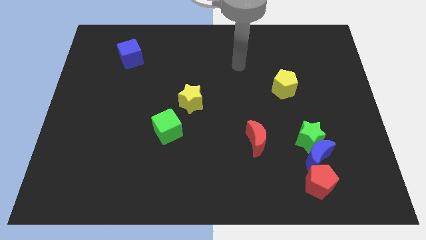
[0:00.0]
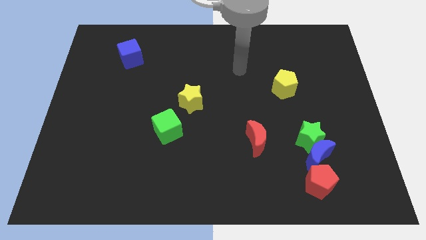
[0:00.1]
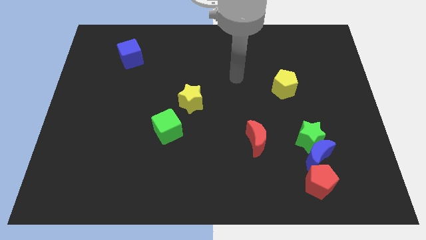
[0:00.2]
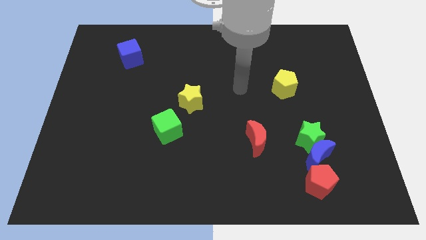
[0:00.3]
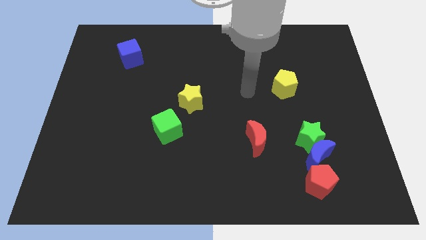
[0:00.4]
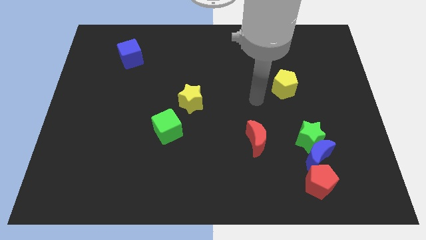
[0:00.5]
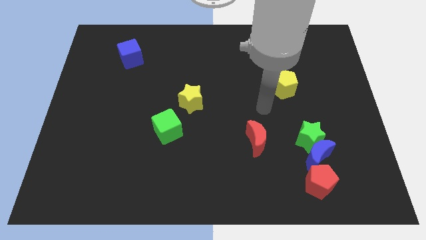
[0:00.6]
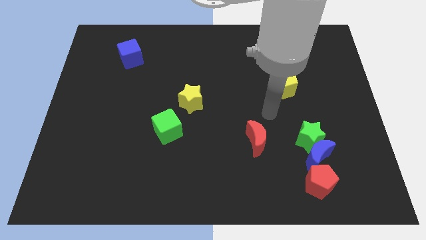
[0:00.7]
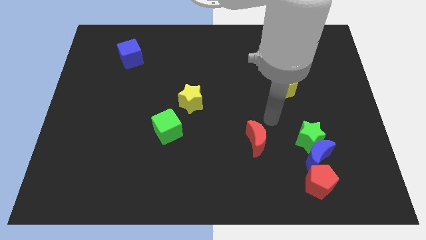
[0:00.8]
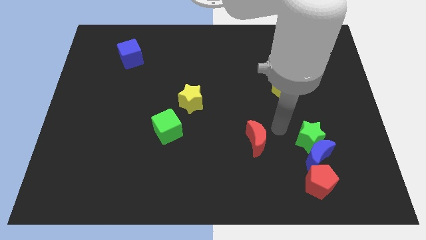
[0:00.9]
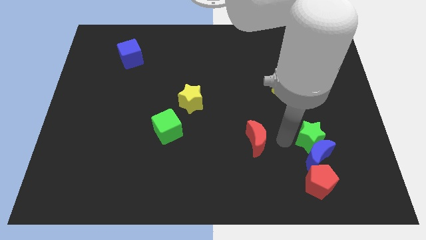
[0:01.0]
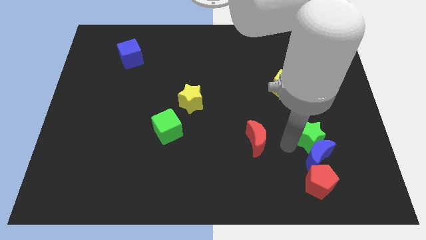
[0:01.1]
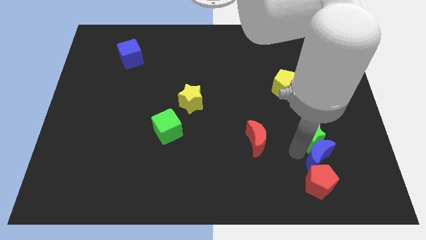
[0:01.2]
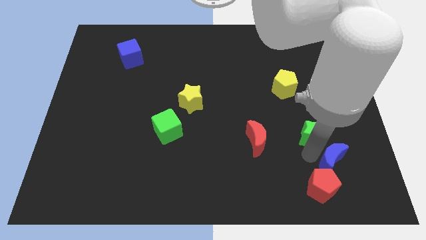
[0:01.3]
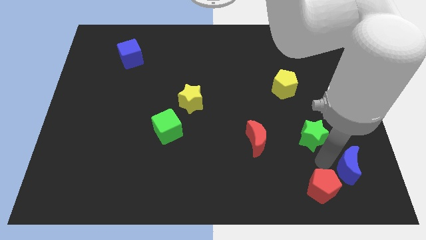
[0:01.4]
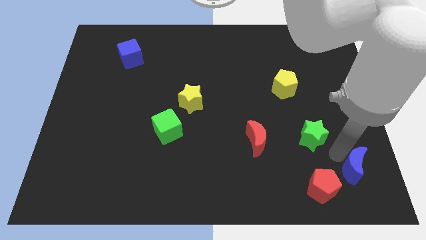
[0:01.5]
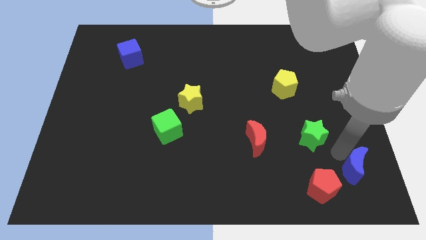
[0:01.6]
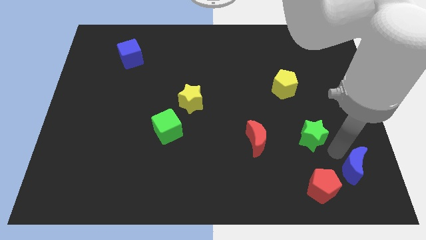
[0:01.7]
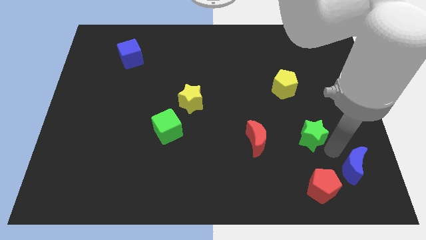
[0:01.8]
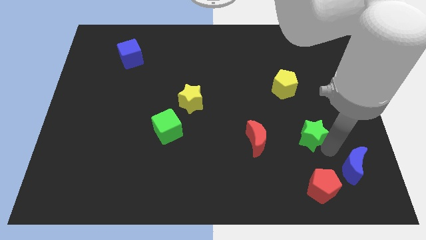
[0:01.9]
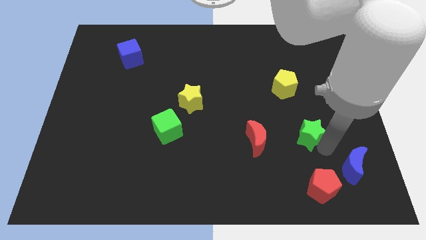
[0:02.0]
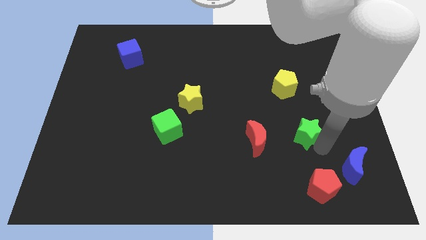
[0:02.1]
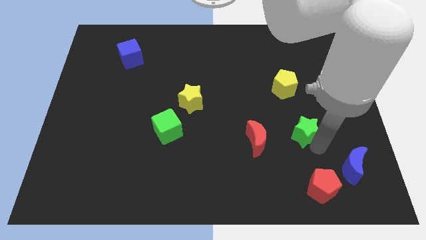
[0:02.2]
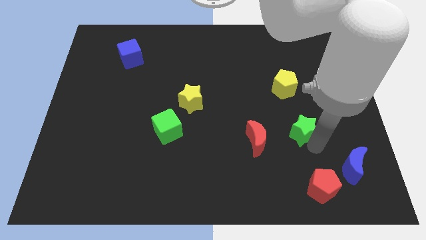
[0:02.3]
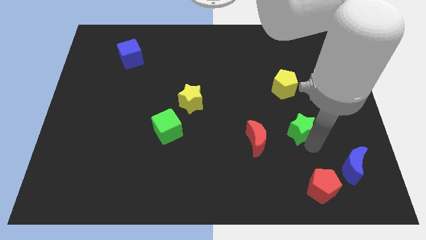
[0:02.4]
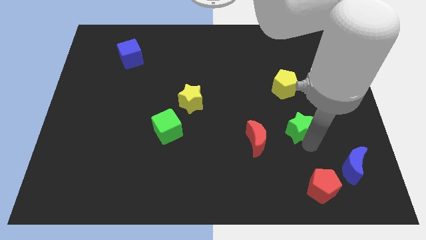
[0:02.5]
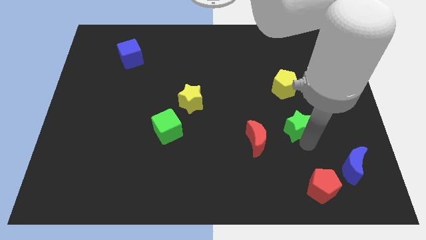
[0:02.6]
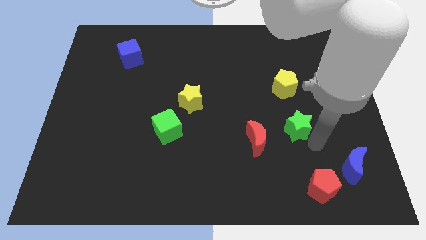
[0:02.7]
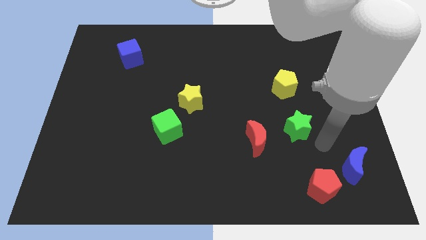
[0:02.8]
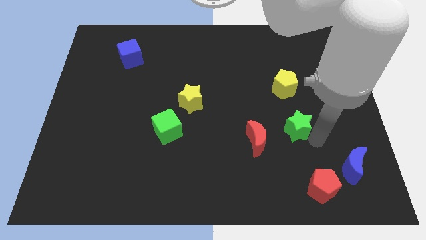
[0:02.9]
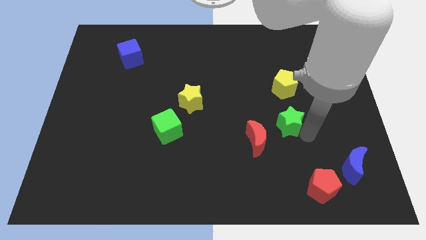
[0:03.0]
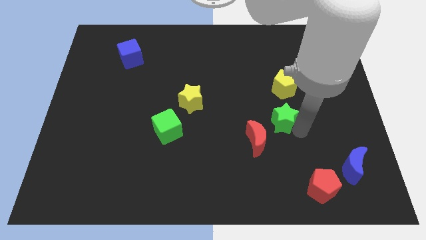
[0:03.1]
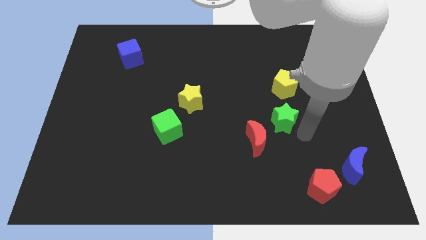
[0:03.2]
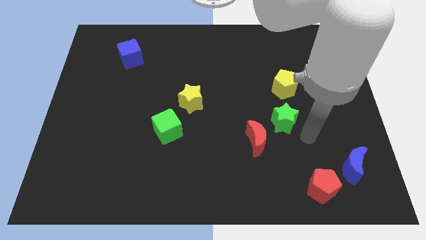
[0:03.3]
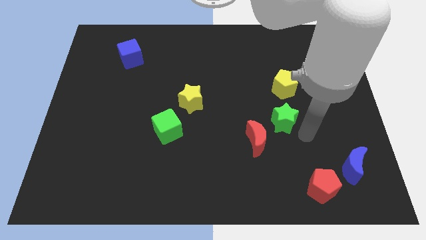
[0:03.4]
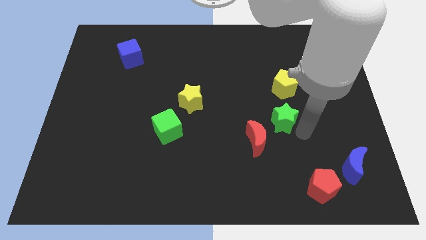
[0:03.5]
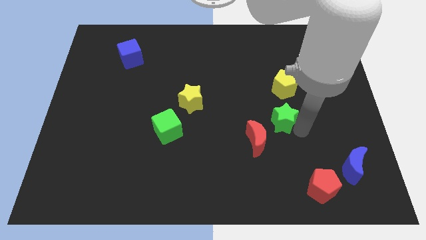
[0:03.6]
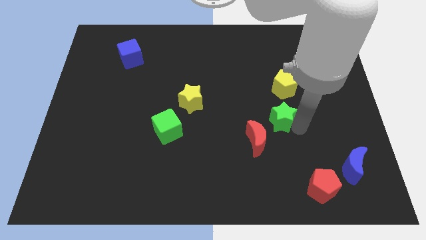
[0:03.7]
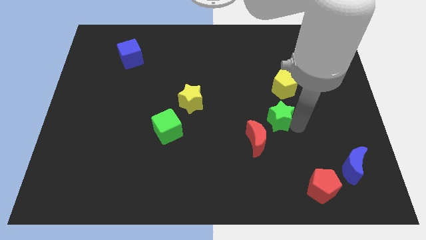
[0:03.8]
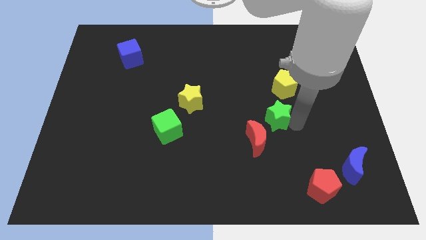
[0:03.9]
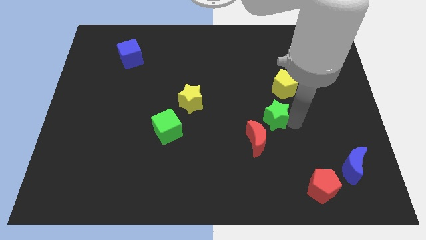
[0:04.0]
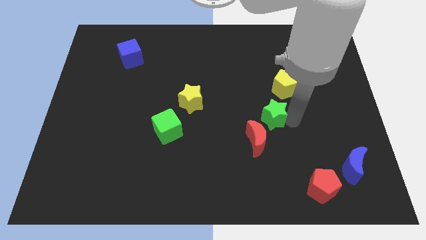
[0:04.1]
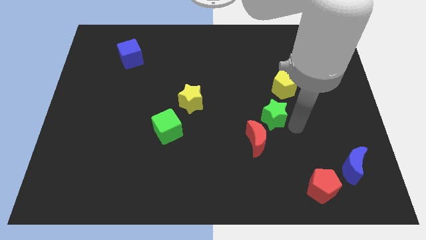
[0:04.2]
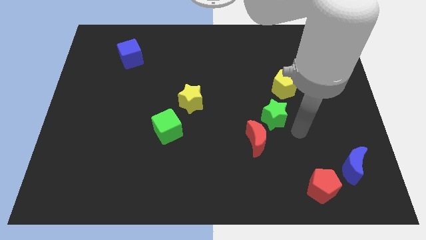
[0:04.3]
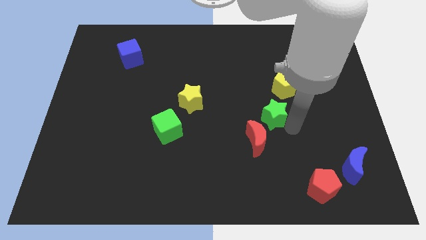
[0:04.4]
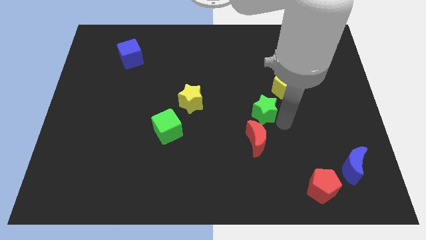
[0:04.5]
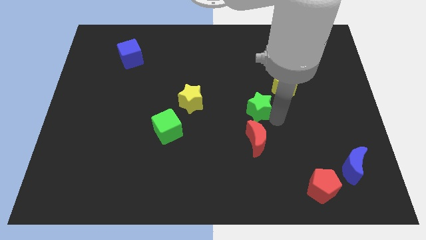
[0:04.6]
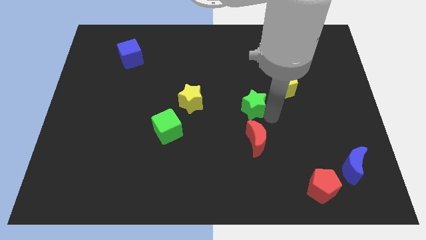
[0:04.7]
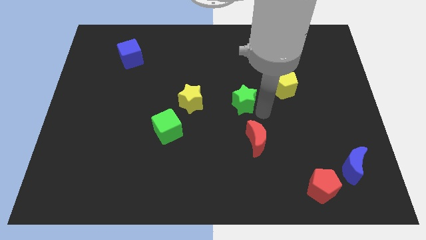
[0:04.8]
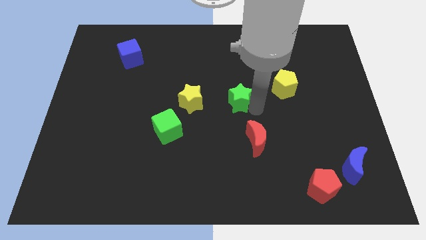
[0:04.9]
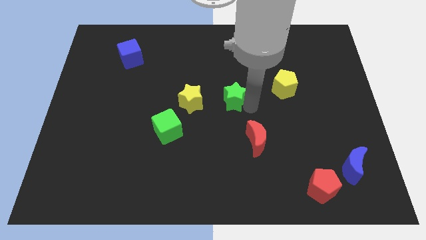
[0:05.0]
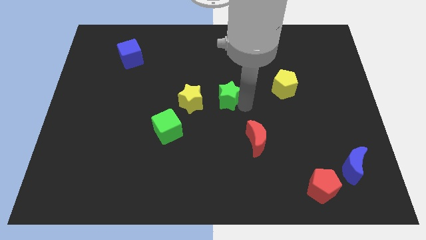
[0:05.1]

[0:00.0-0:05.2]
push the green star up and to the left

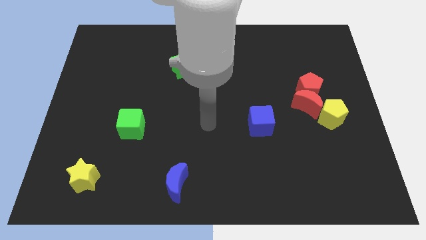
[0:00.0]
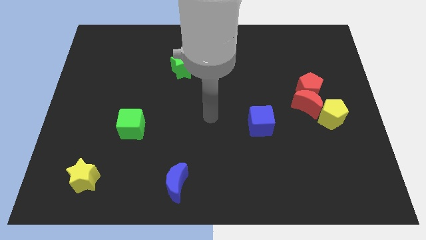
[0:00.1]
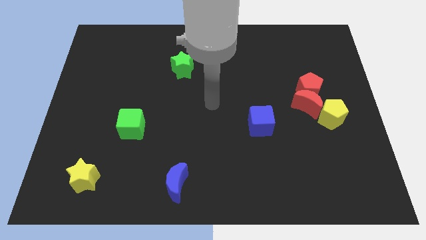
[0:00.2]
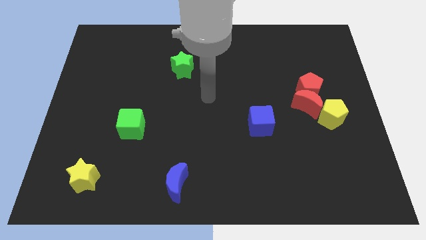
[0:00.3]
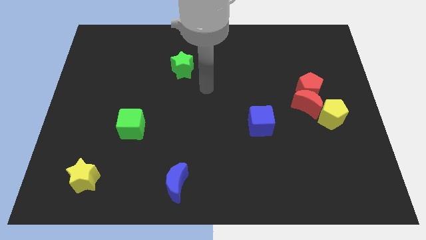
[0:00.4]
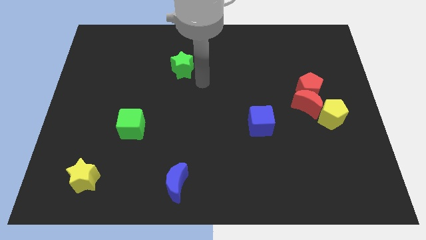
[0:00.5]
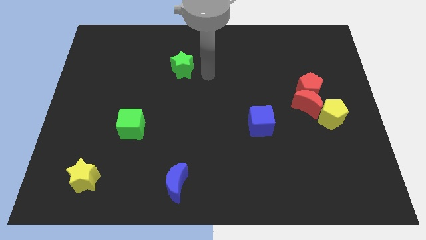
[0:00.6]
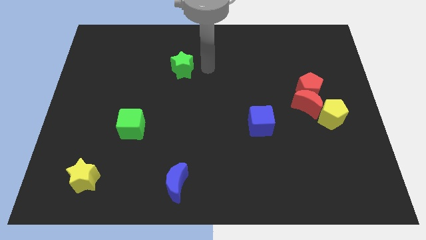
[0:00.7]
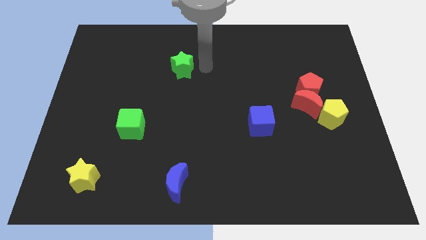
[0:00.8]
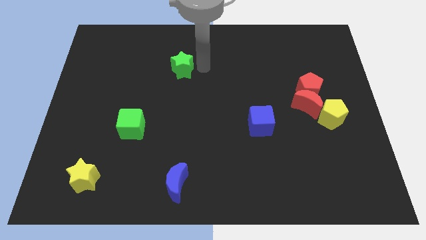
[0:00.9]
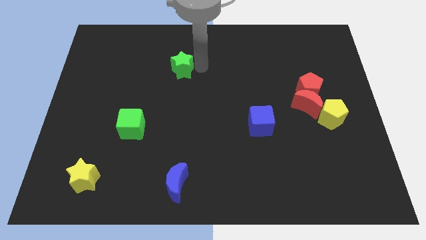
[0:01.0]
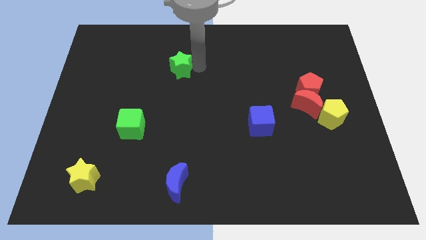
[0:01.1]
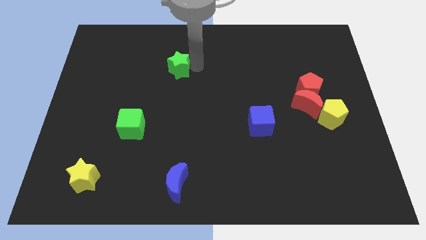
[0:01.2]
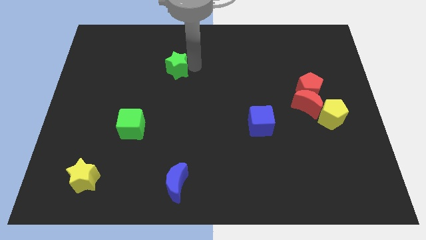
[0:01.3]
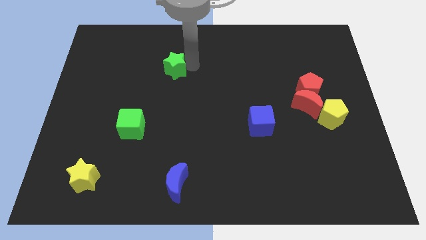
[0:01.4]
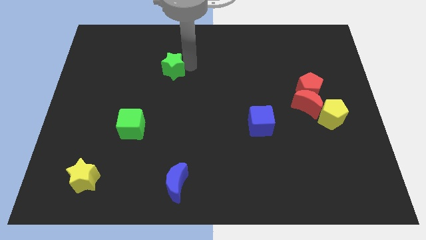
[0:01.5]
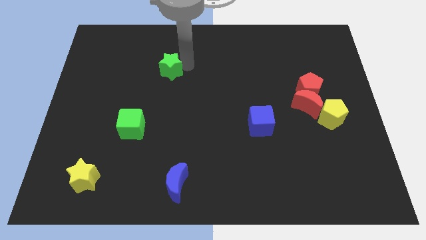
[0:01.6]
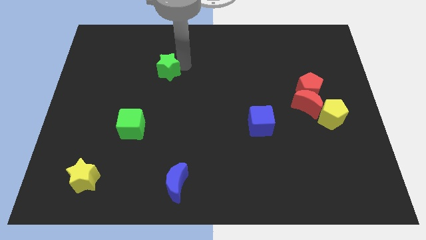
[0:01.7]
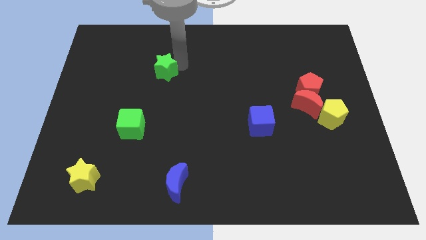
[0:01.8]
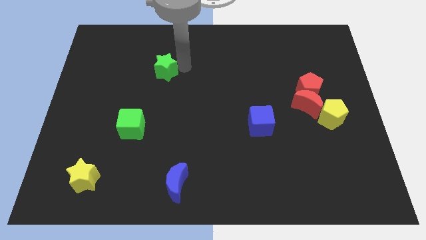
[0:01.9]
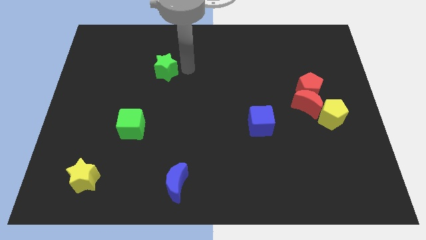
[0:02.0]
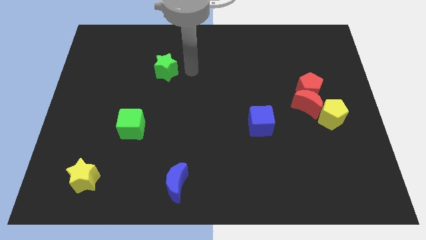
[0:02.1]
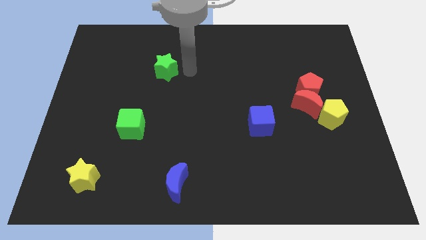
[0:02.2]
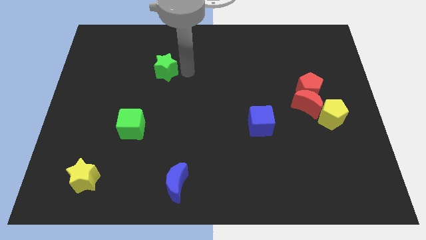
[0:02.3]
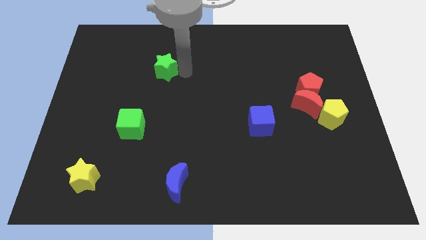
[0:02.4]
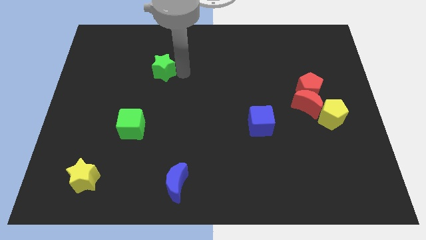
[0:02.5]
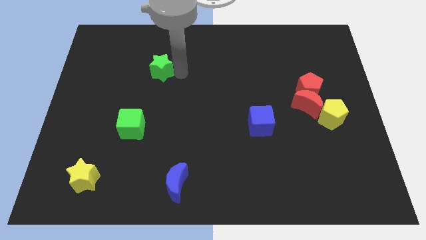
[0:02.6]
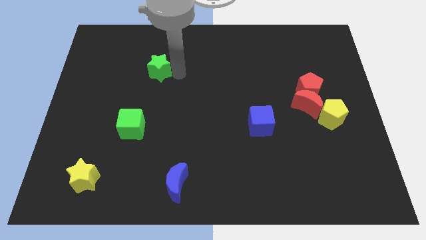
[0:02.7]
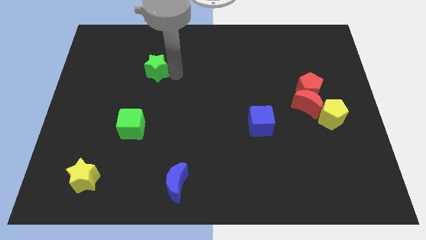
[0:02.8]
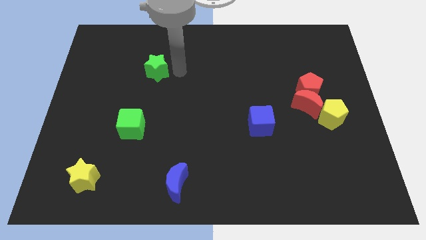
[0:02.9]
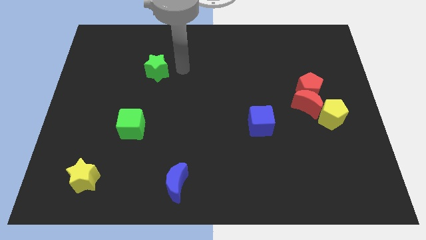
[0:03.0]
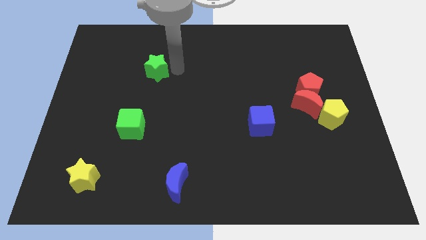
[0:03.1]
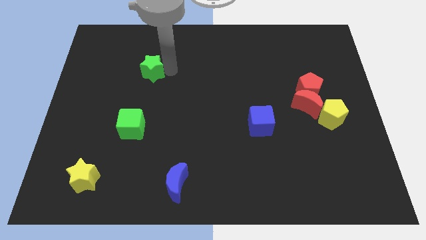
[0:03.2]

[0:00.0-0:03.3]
slightly move the green star to the left
